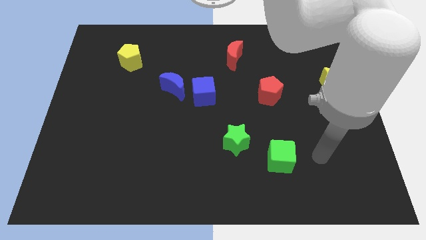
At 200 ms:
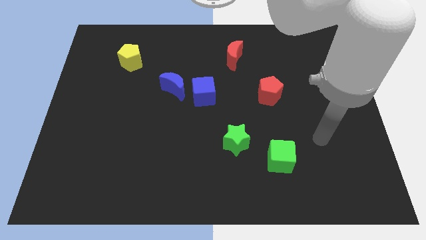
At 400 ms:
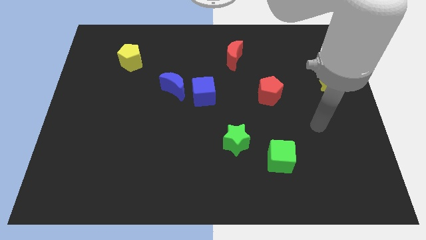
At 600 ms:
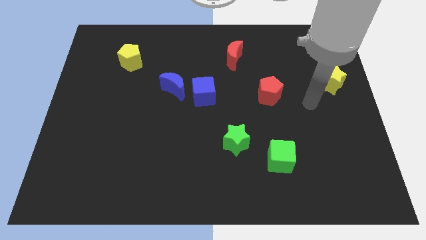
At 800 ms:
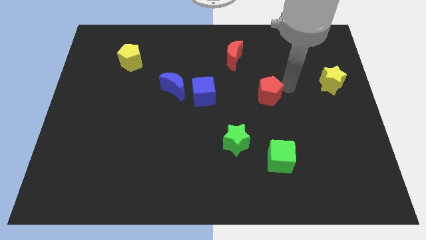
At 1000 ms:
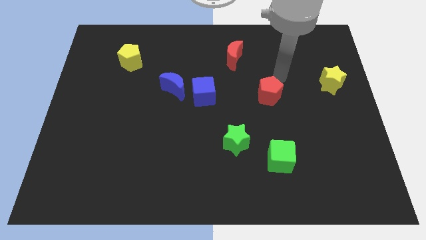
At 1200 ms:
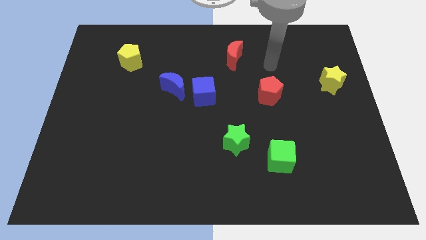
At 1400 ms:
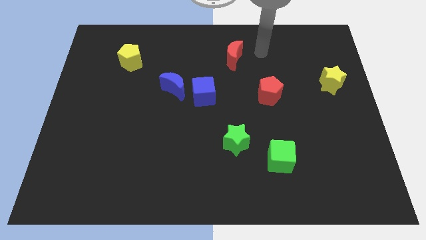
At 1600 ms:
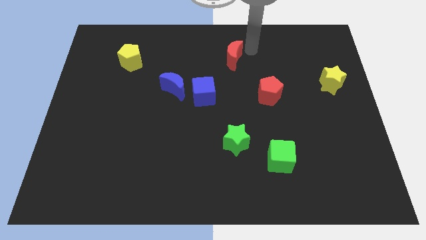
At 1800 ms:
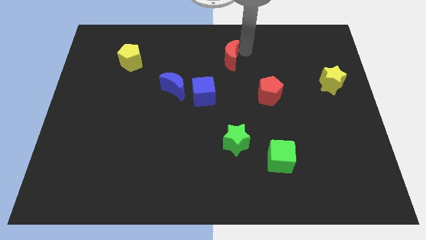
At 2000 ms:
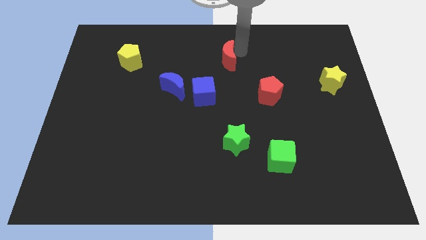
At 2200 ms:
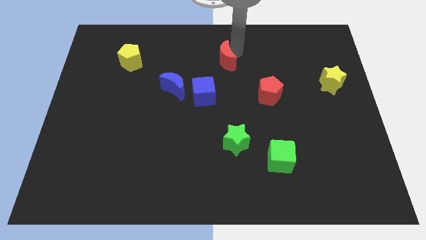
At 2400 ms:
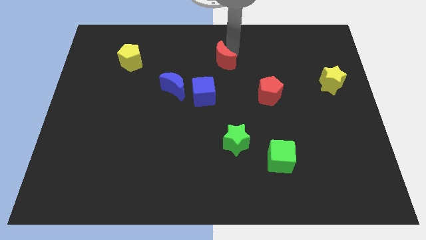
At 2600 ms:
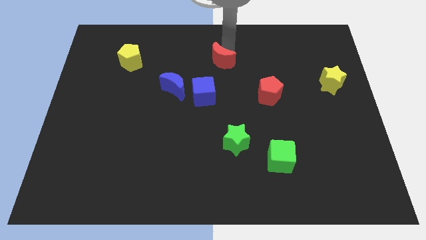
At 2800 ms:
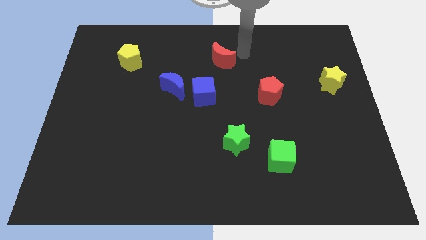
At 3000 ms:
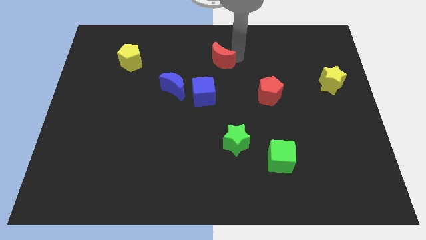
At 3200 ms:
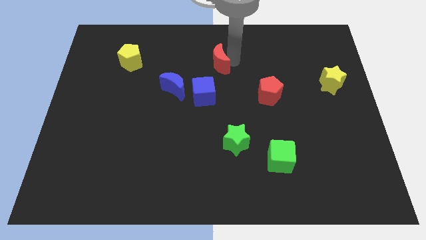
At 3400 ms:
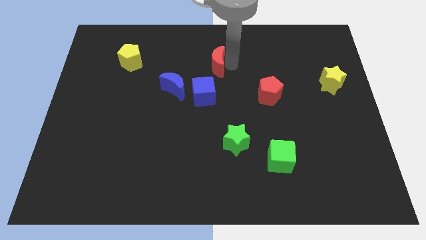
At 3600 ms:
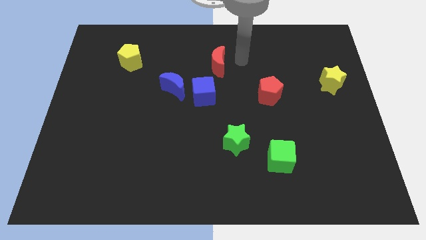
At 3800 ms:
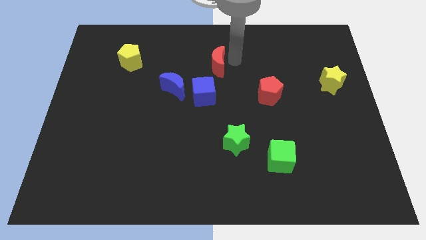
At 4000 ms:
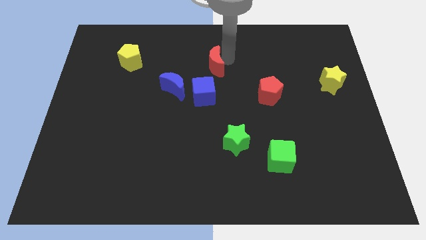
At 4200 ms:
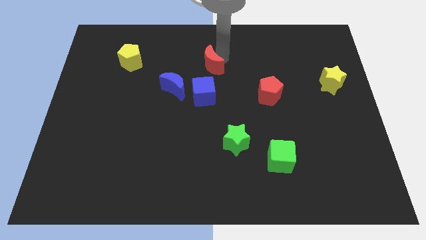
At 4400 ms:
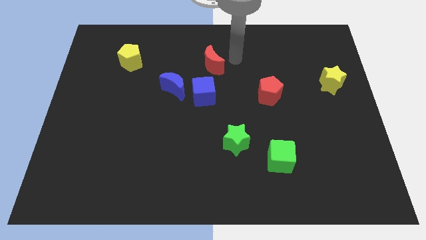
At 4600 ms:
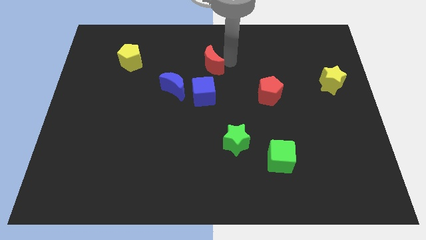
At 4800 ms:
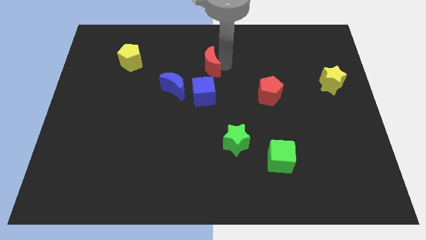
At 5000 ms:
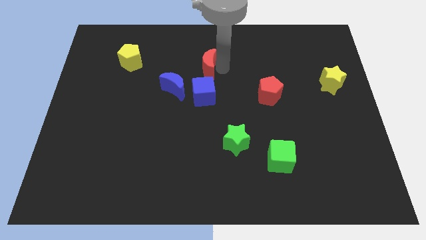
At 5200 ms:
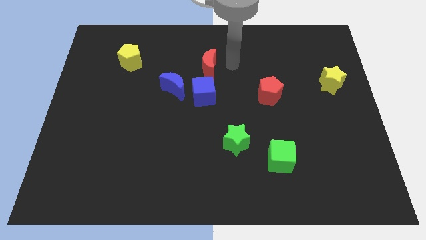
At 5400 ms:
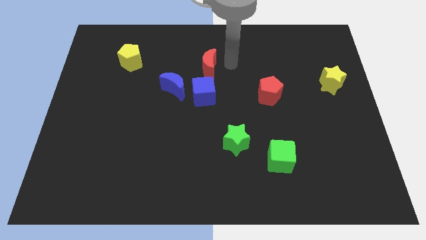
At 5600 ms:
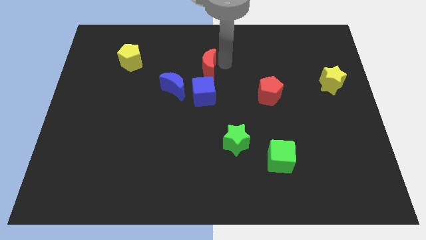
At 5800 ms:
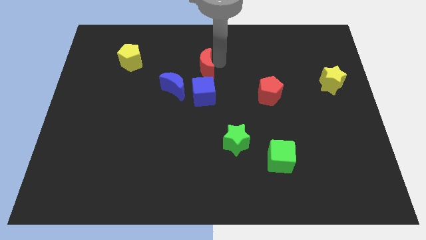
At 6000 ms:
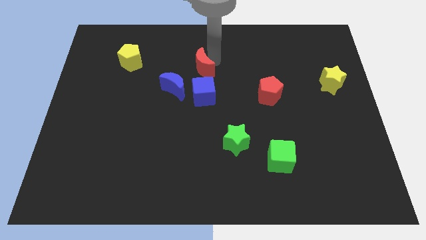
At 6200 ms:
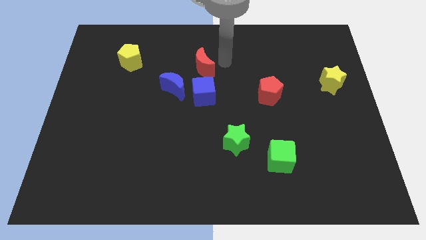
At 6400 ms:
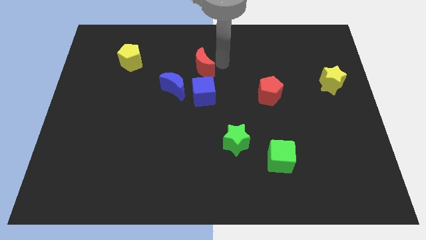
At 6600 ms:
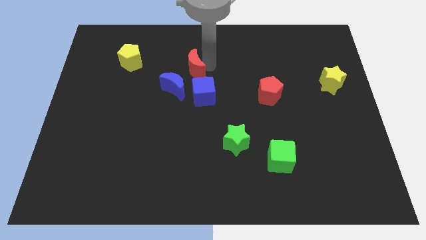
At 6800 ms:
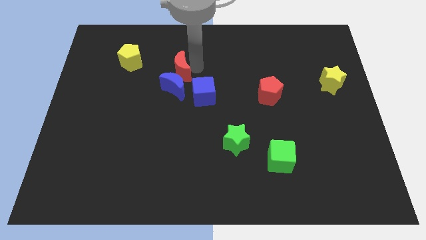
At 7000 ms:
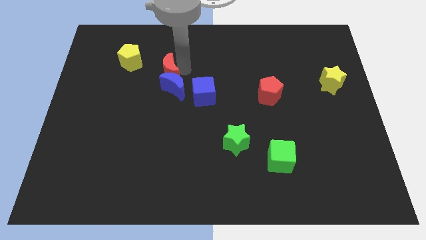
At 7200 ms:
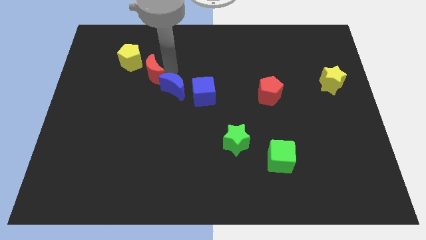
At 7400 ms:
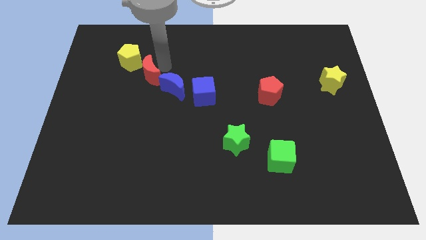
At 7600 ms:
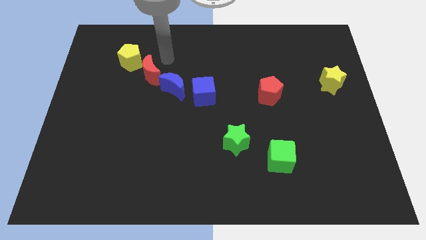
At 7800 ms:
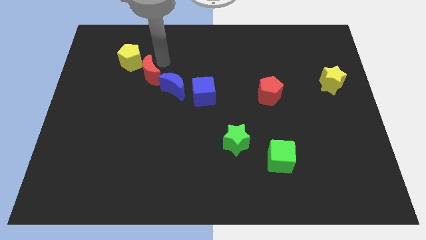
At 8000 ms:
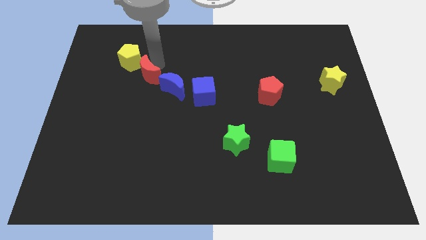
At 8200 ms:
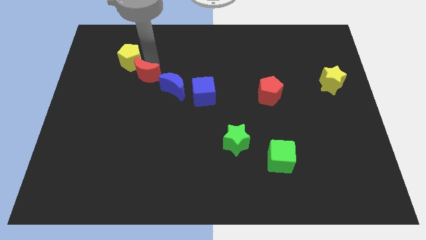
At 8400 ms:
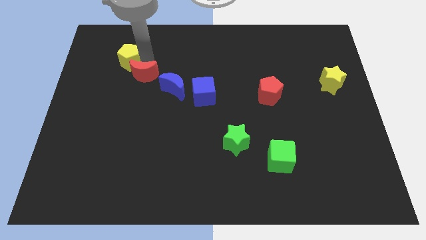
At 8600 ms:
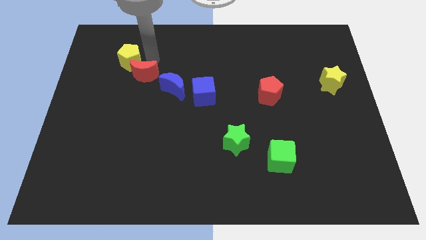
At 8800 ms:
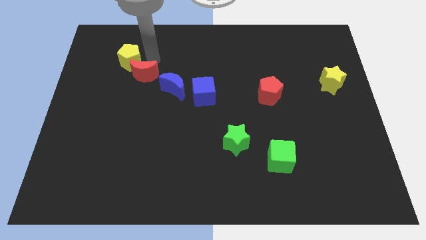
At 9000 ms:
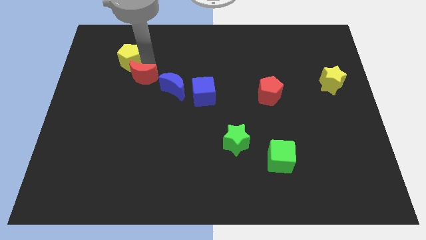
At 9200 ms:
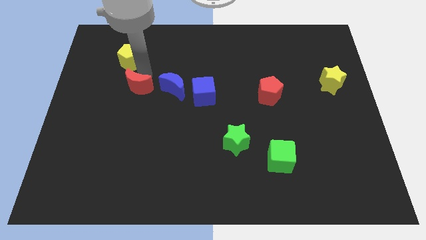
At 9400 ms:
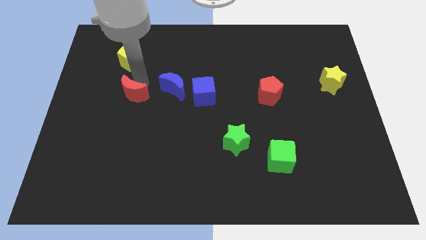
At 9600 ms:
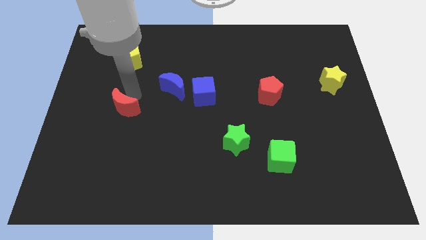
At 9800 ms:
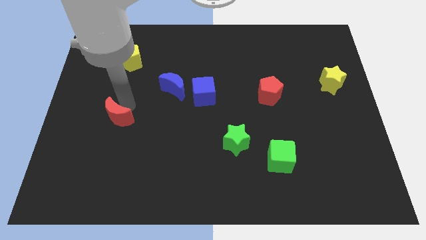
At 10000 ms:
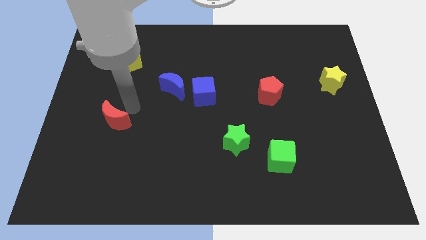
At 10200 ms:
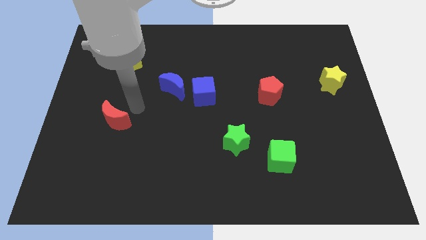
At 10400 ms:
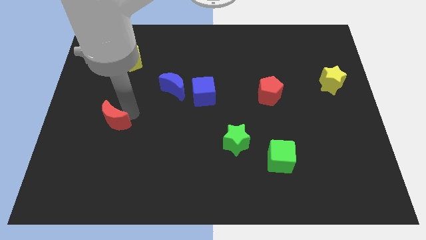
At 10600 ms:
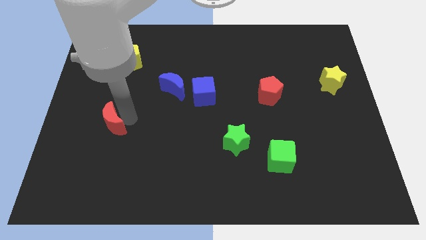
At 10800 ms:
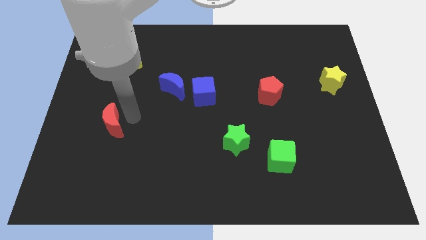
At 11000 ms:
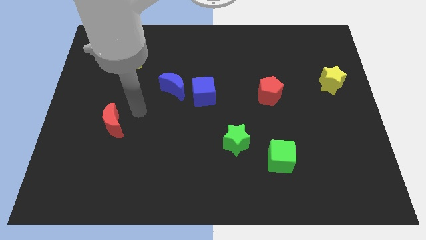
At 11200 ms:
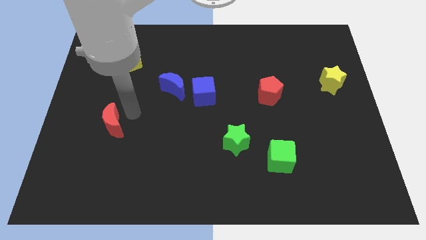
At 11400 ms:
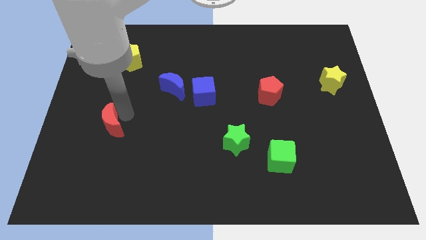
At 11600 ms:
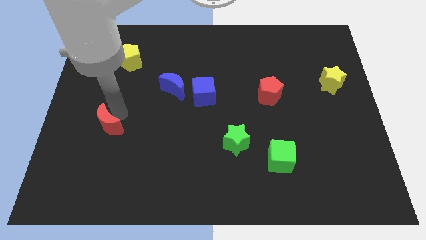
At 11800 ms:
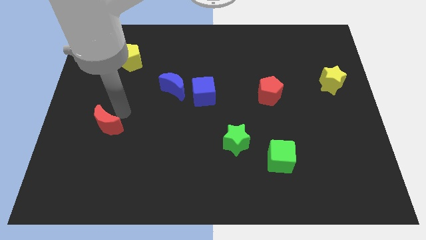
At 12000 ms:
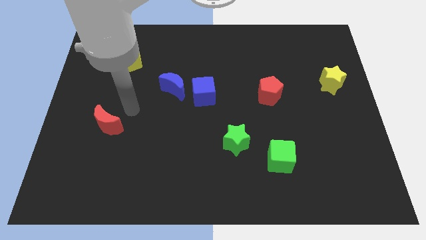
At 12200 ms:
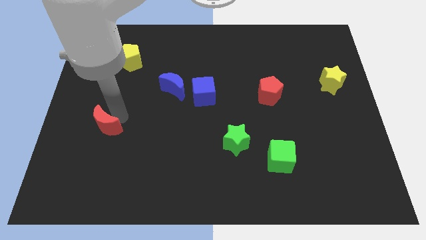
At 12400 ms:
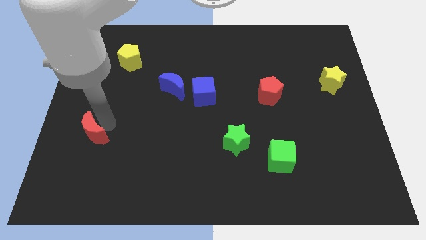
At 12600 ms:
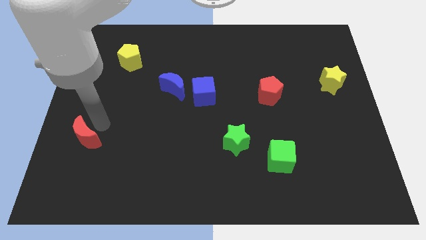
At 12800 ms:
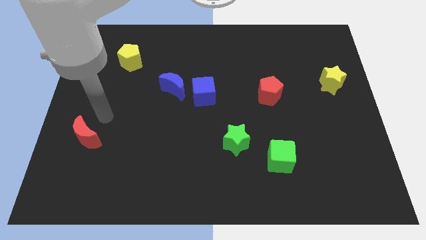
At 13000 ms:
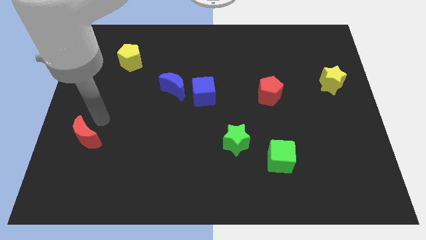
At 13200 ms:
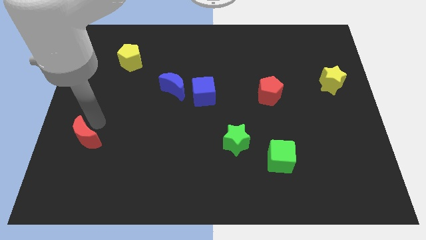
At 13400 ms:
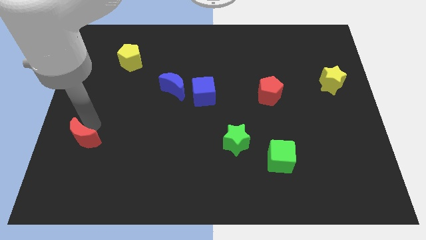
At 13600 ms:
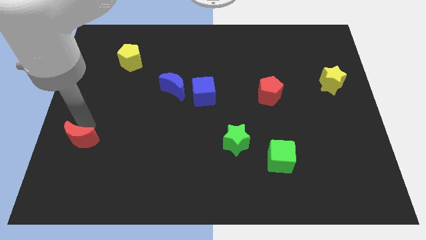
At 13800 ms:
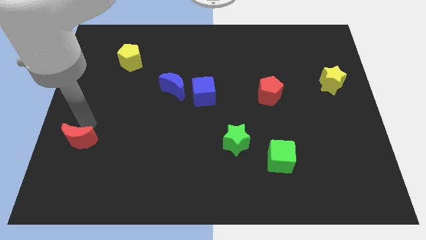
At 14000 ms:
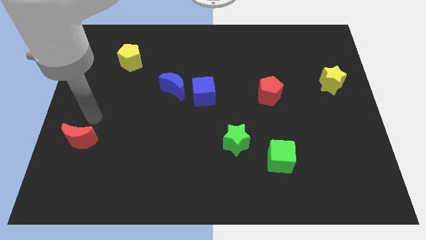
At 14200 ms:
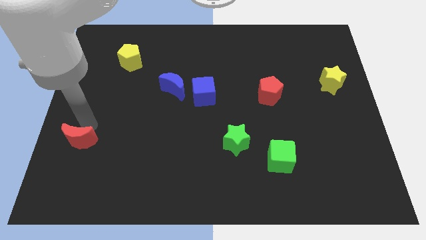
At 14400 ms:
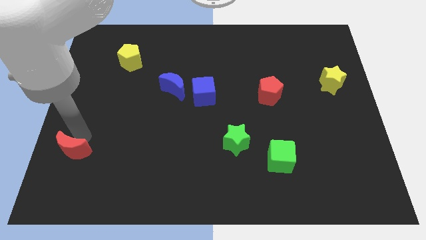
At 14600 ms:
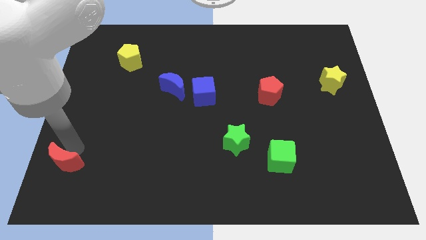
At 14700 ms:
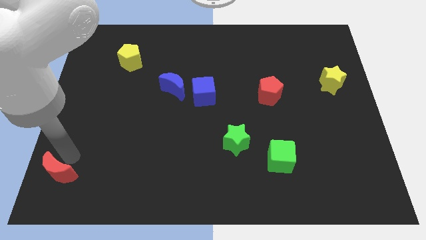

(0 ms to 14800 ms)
push the red moon to the lower left corner
